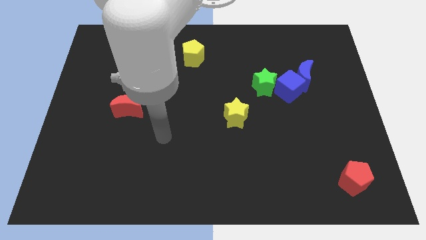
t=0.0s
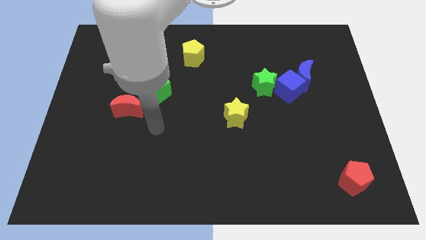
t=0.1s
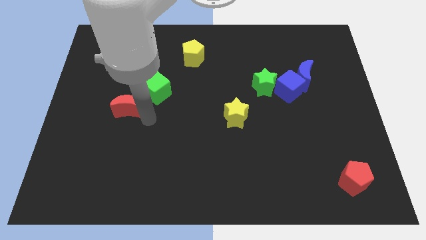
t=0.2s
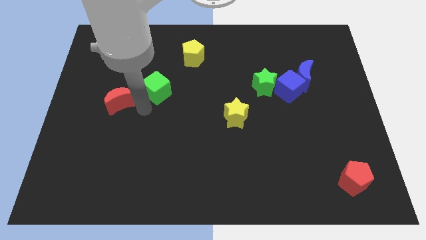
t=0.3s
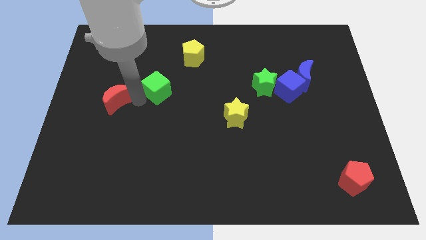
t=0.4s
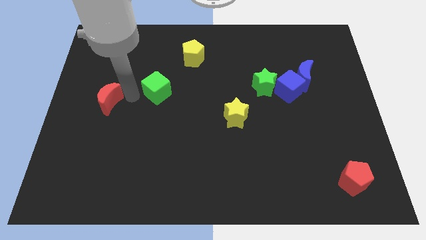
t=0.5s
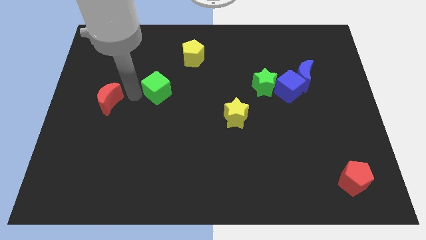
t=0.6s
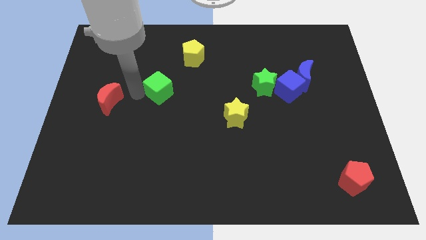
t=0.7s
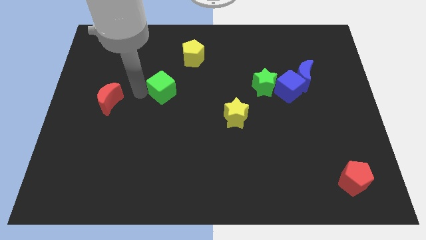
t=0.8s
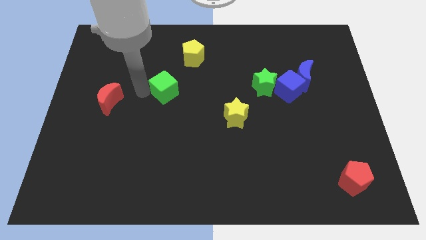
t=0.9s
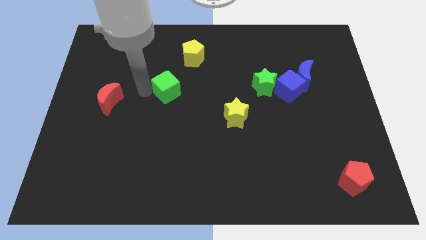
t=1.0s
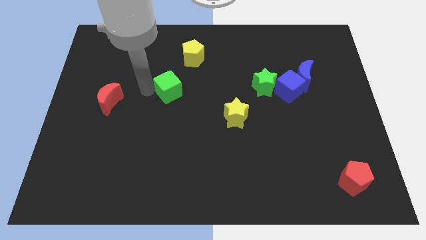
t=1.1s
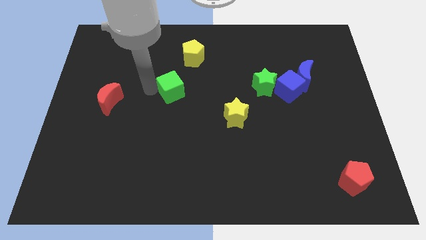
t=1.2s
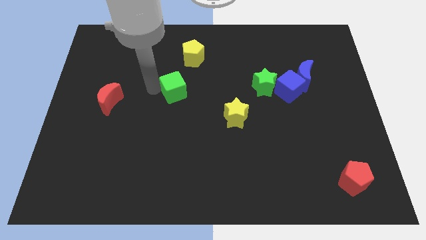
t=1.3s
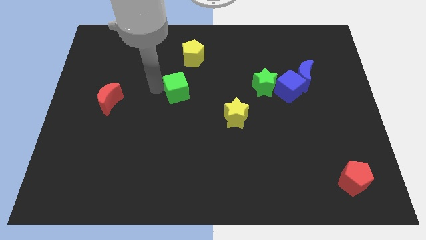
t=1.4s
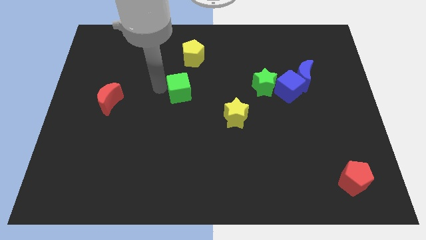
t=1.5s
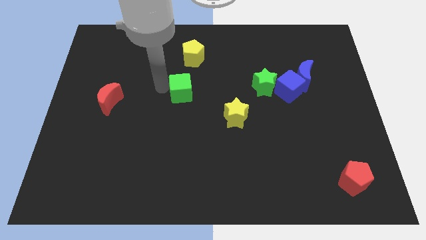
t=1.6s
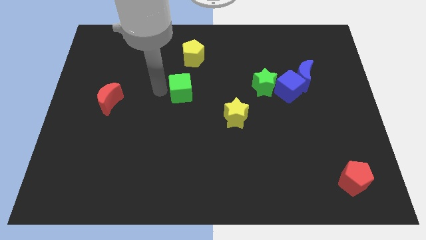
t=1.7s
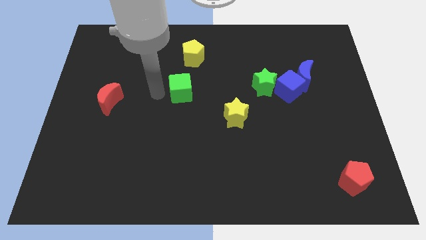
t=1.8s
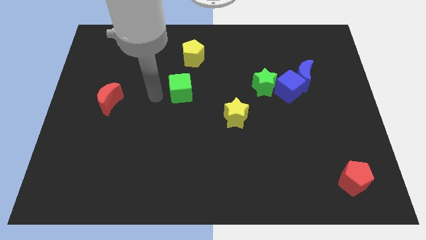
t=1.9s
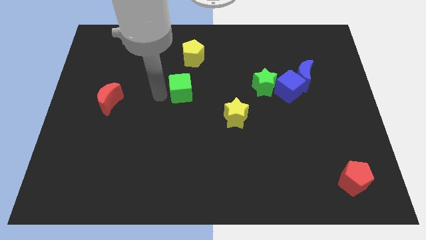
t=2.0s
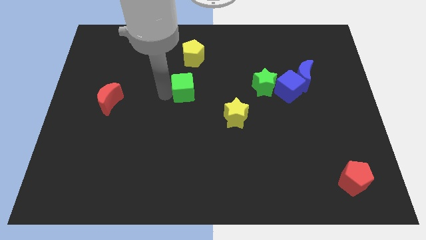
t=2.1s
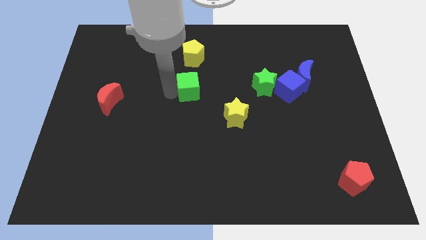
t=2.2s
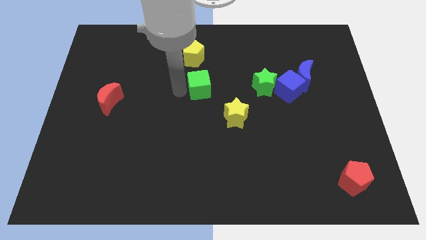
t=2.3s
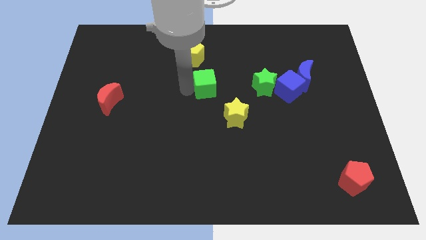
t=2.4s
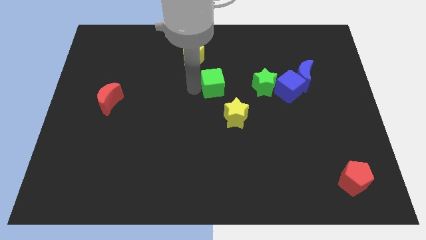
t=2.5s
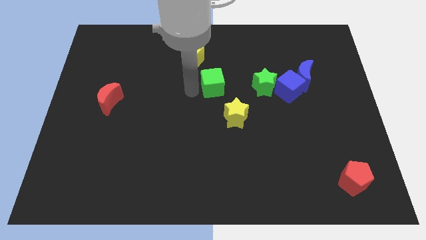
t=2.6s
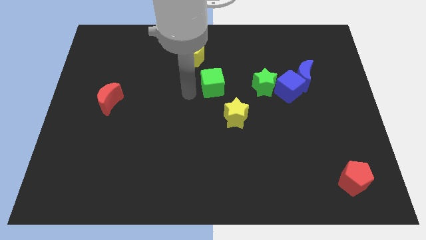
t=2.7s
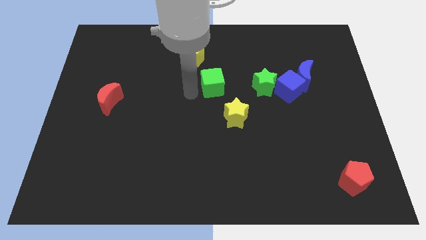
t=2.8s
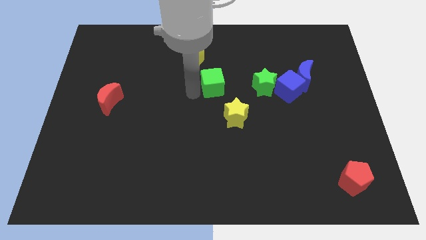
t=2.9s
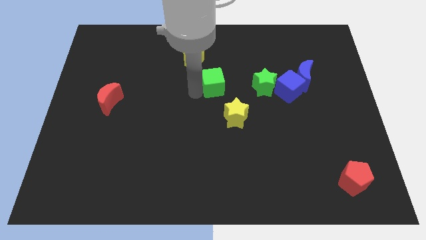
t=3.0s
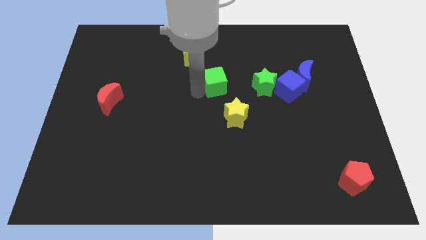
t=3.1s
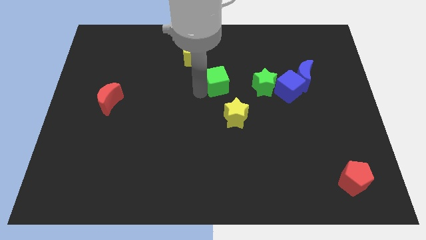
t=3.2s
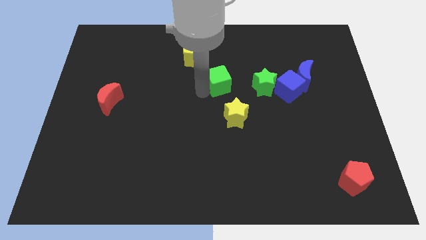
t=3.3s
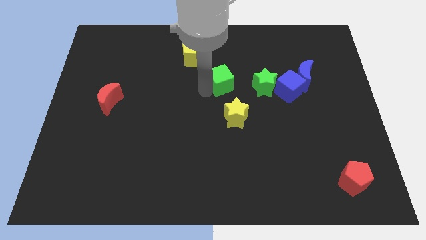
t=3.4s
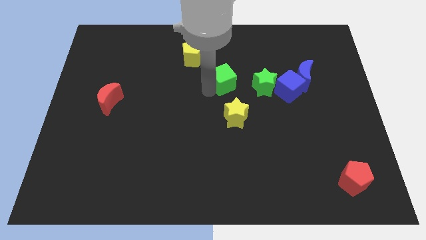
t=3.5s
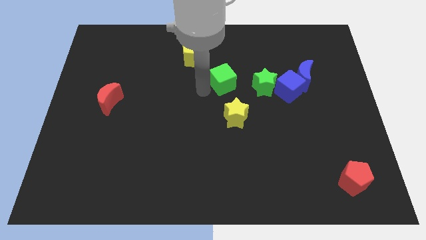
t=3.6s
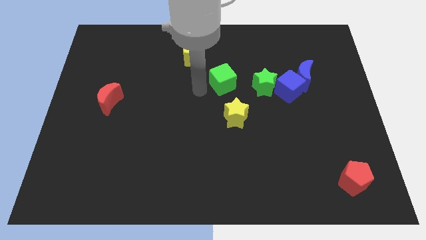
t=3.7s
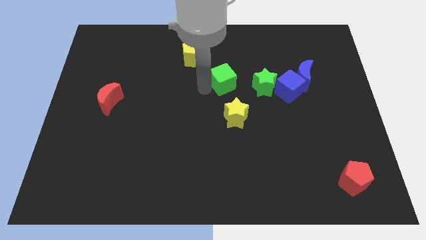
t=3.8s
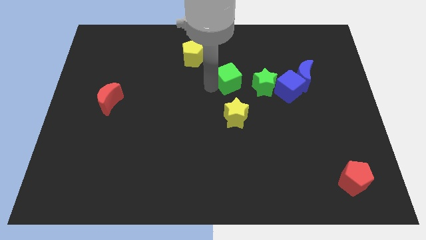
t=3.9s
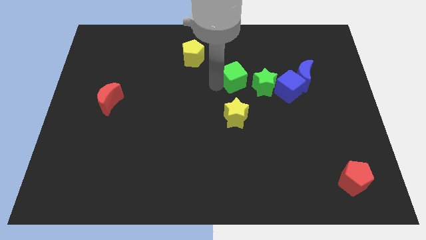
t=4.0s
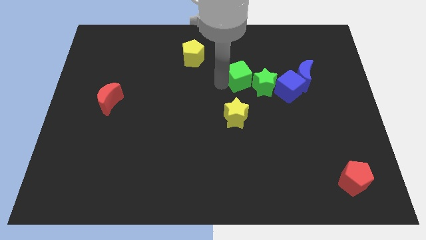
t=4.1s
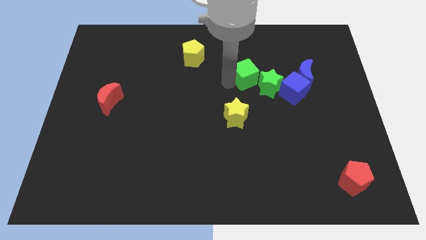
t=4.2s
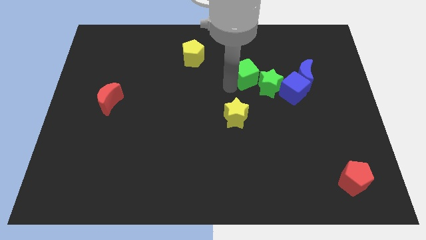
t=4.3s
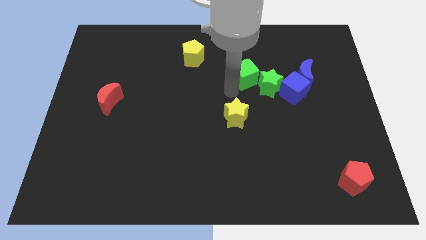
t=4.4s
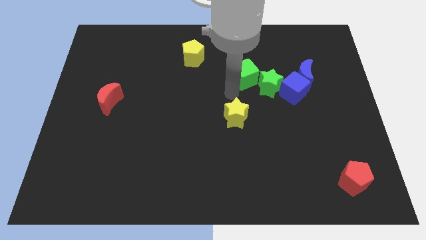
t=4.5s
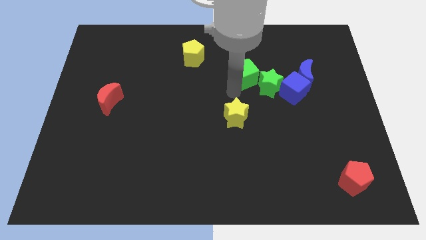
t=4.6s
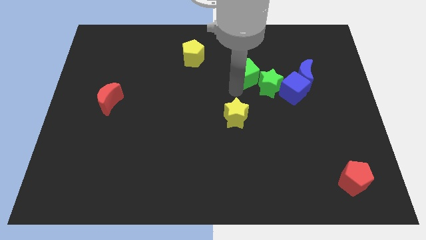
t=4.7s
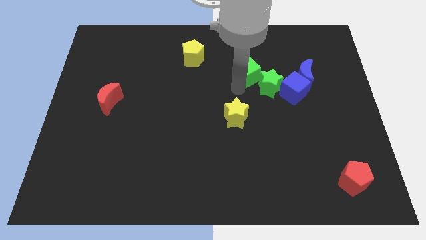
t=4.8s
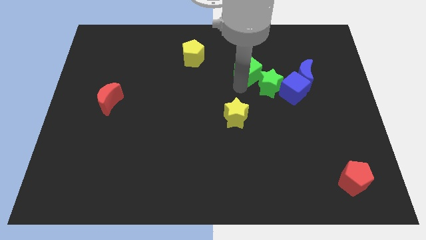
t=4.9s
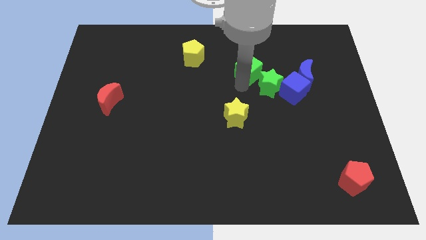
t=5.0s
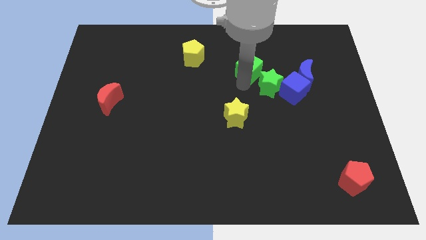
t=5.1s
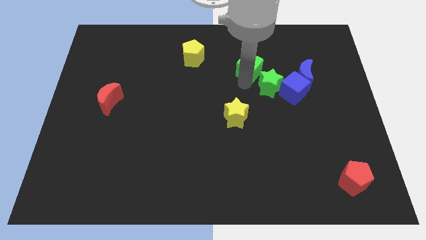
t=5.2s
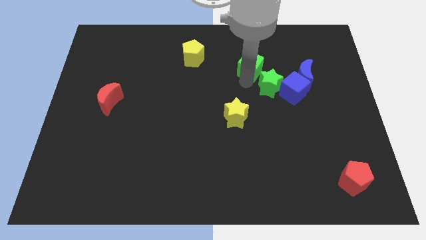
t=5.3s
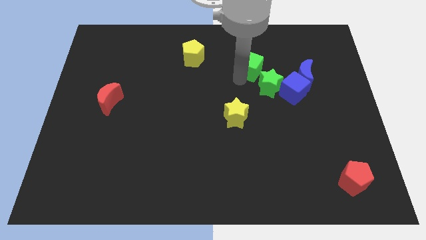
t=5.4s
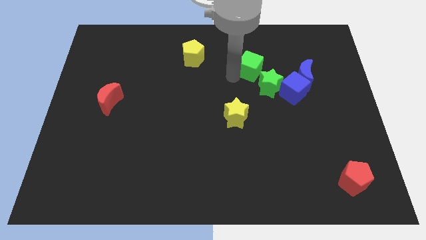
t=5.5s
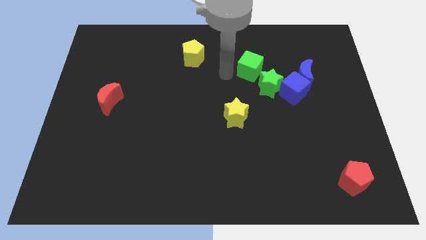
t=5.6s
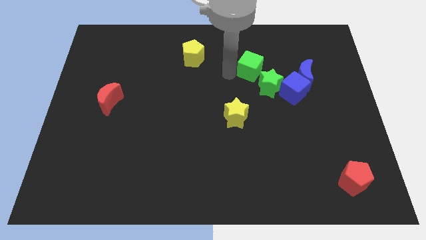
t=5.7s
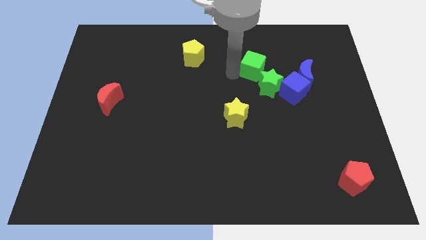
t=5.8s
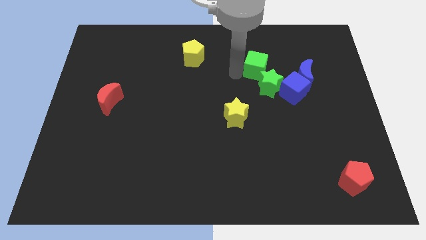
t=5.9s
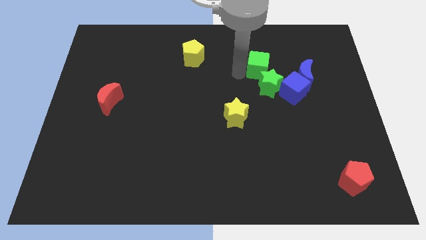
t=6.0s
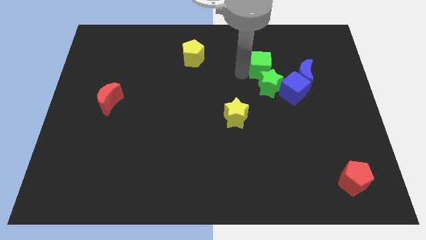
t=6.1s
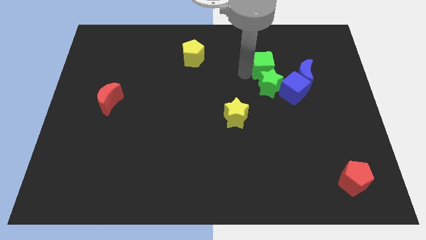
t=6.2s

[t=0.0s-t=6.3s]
push the green cube diagonally up and to the left of the blue moon

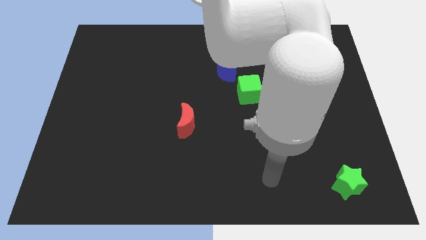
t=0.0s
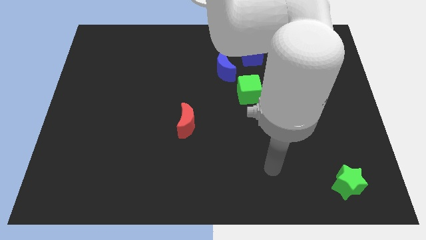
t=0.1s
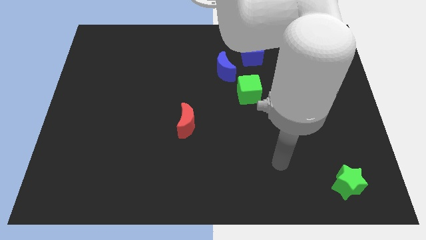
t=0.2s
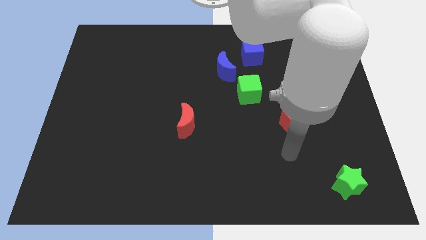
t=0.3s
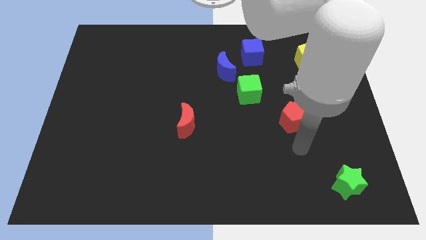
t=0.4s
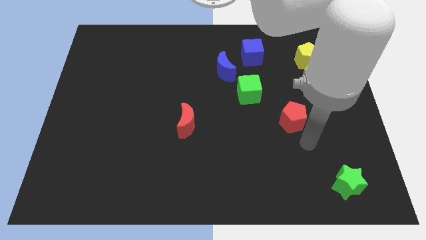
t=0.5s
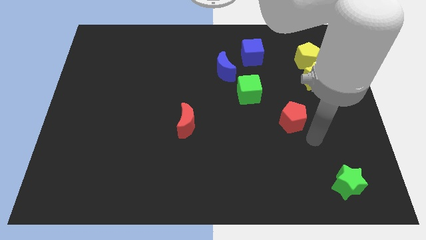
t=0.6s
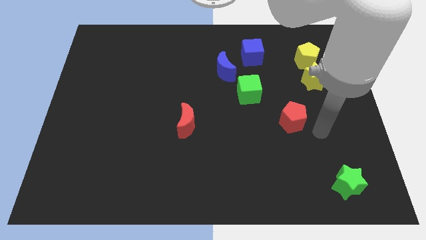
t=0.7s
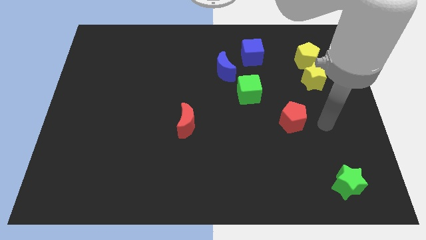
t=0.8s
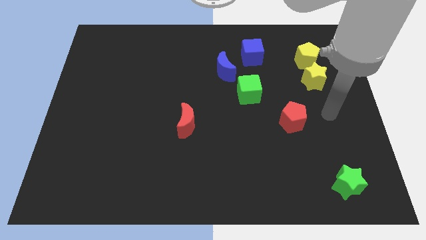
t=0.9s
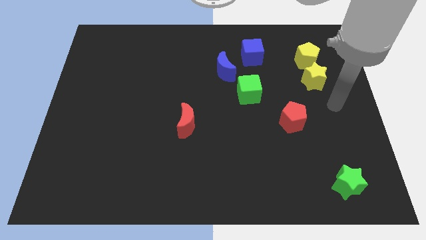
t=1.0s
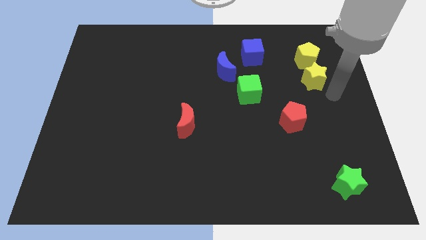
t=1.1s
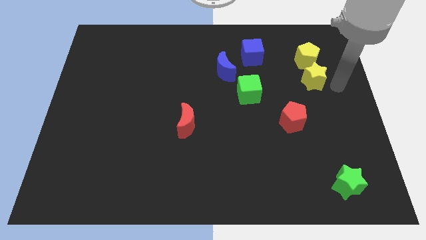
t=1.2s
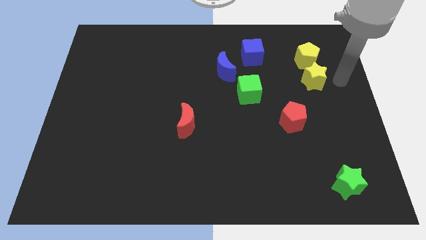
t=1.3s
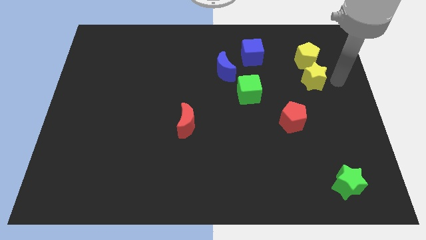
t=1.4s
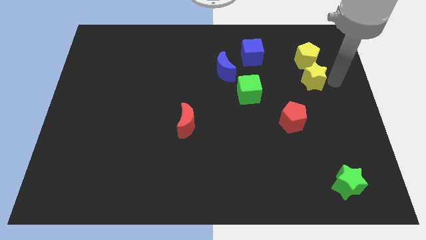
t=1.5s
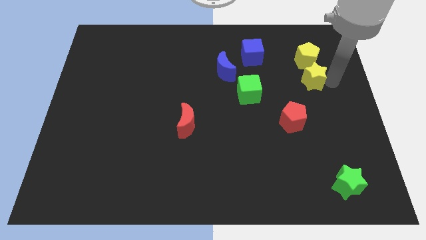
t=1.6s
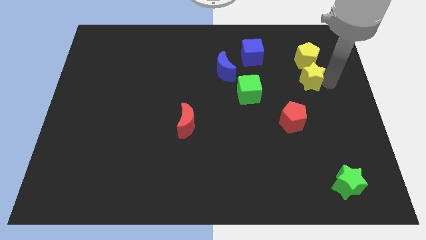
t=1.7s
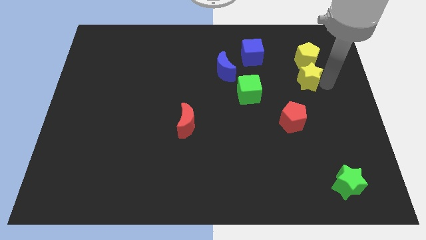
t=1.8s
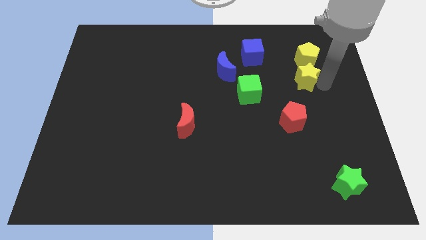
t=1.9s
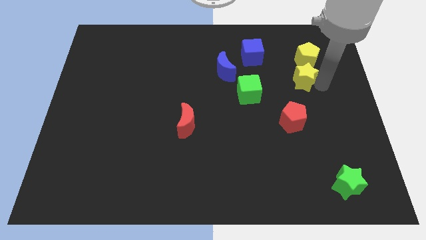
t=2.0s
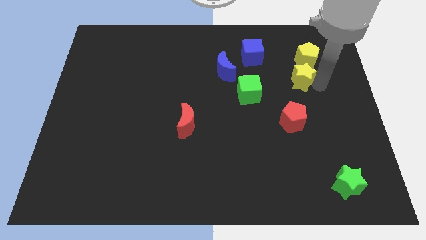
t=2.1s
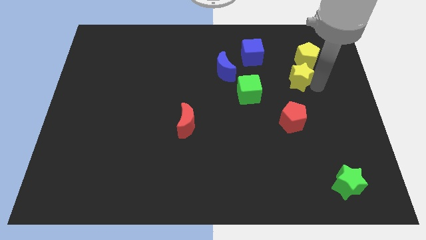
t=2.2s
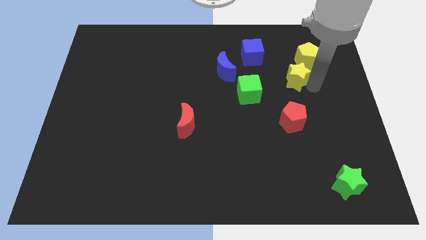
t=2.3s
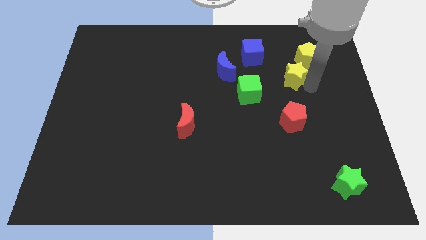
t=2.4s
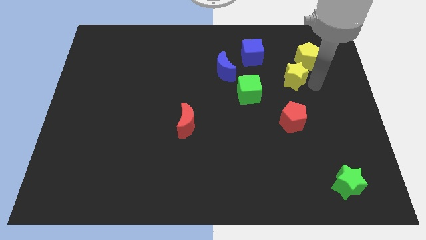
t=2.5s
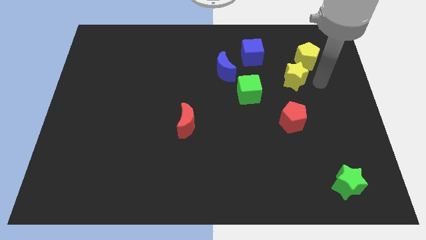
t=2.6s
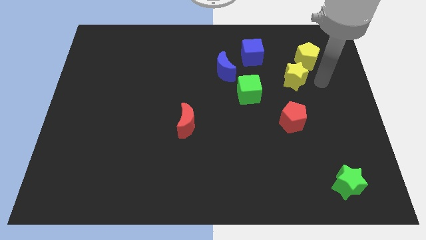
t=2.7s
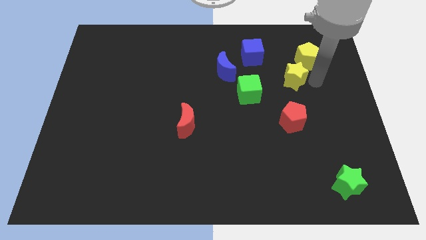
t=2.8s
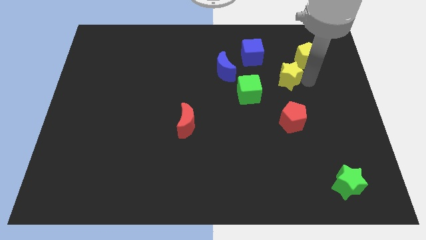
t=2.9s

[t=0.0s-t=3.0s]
slide the yellow star diagonally up and to the right of the green cube
